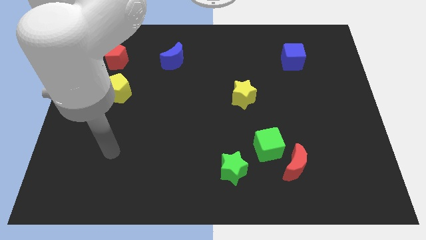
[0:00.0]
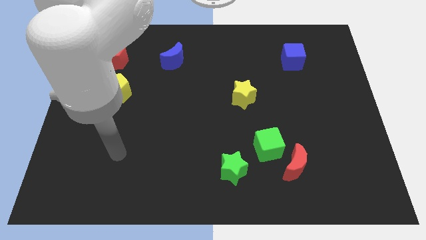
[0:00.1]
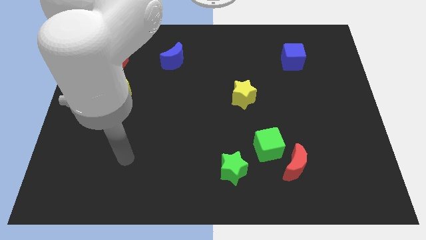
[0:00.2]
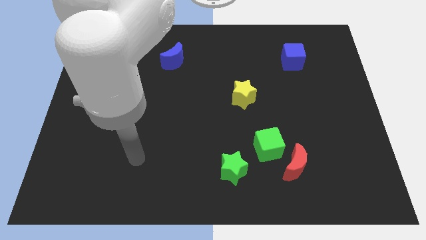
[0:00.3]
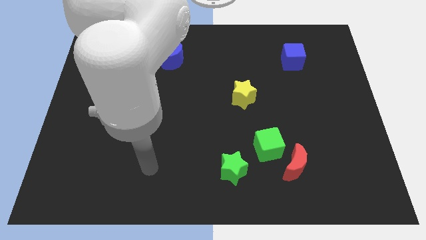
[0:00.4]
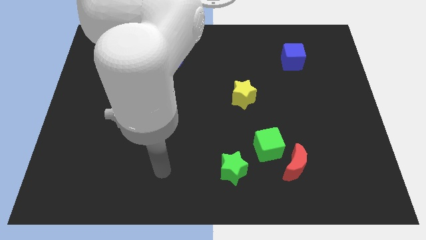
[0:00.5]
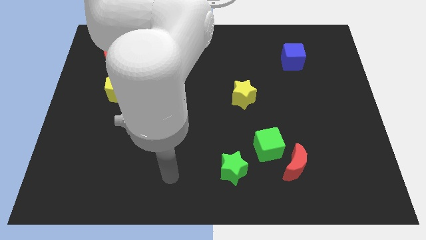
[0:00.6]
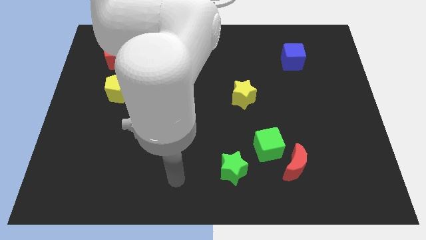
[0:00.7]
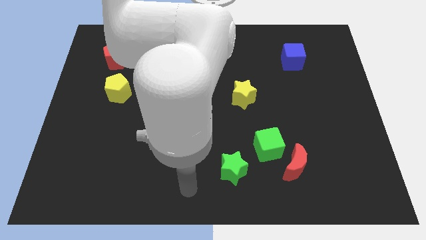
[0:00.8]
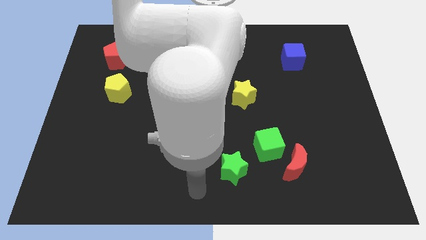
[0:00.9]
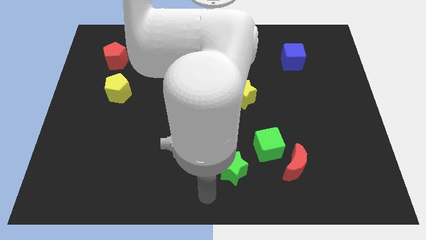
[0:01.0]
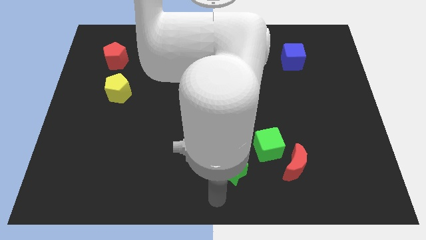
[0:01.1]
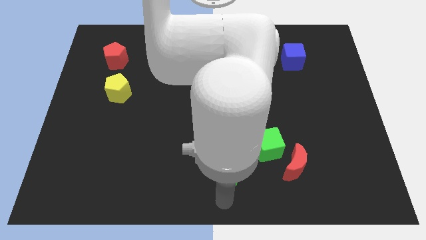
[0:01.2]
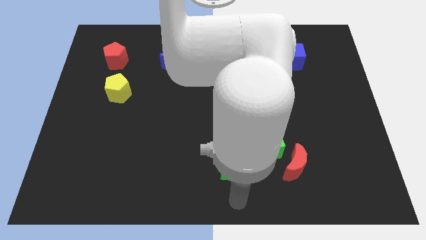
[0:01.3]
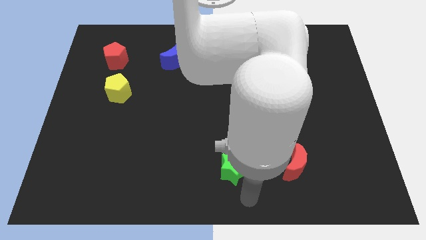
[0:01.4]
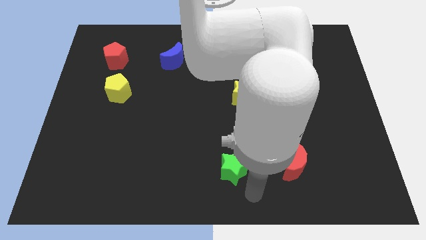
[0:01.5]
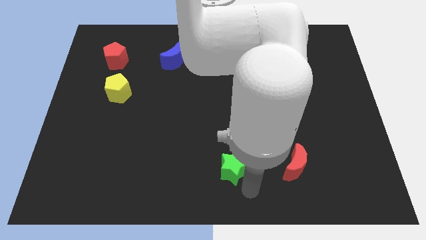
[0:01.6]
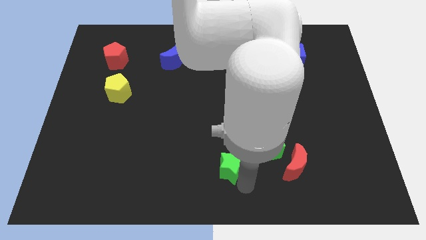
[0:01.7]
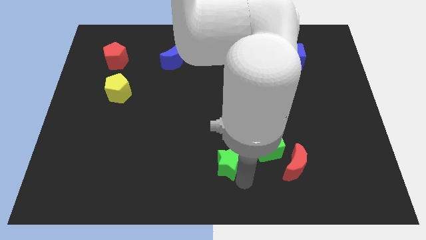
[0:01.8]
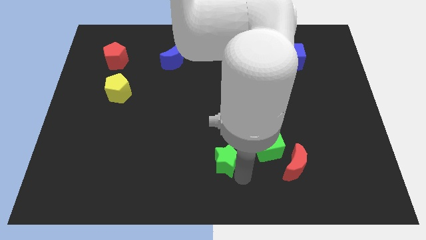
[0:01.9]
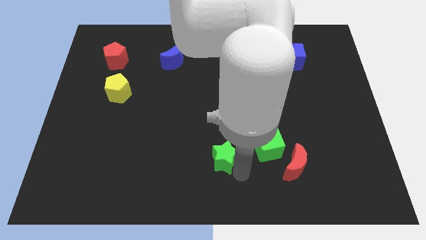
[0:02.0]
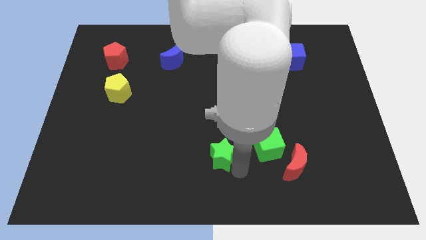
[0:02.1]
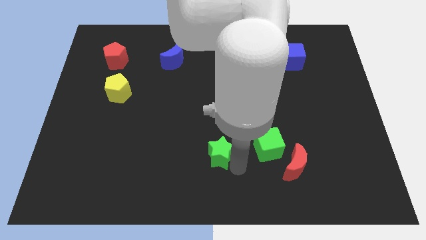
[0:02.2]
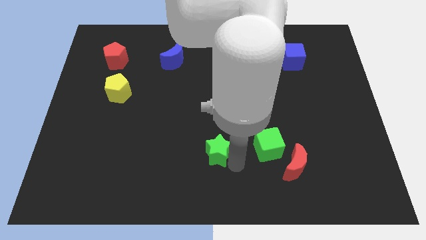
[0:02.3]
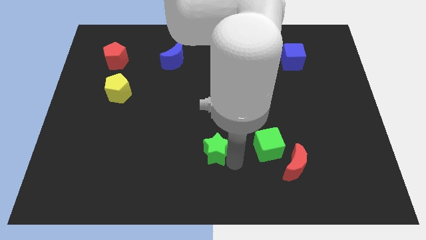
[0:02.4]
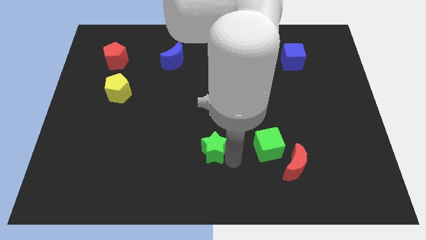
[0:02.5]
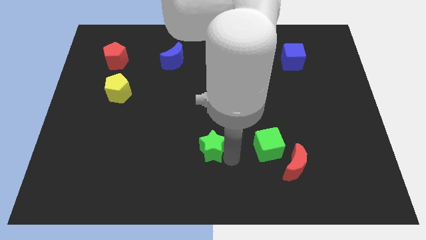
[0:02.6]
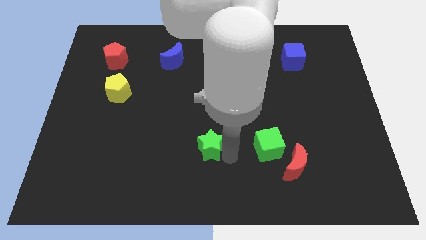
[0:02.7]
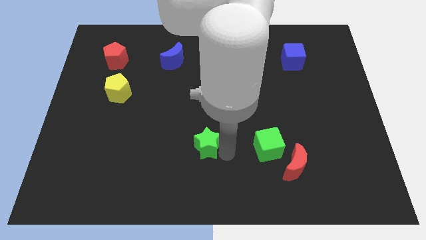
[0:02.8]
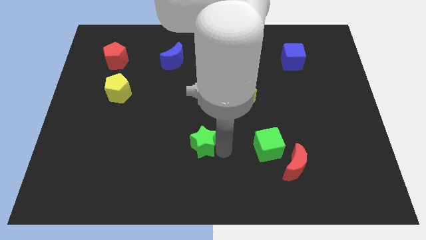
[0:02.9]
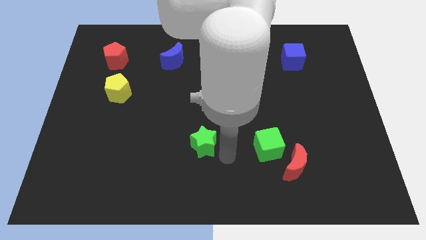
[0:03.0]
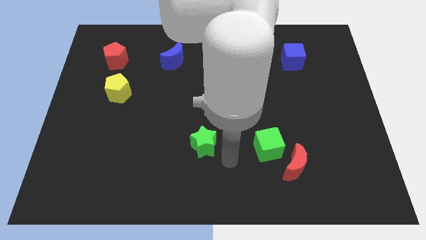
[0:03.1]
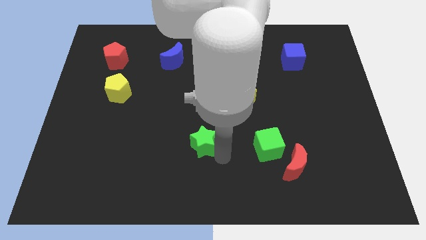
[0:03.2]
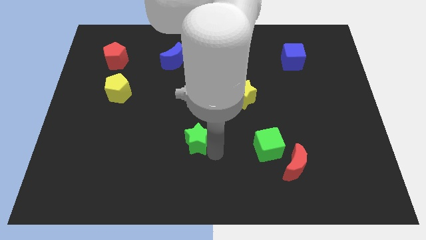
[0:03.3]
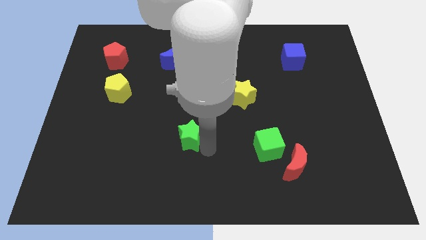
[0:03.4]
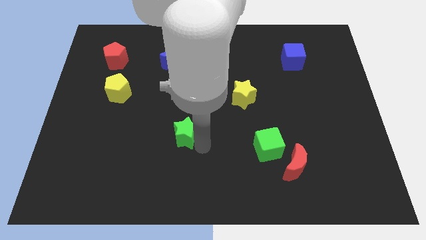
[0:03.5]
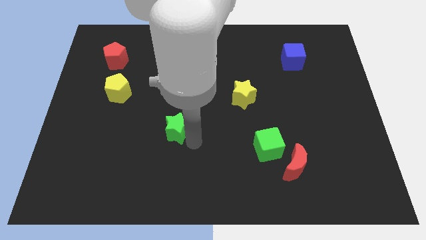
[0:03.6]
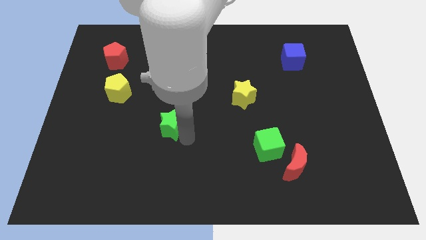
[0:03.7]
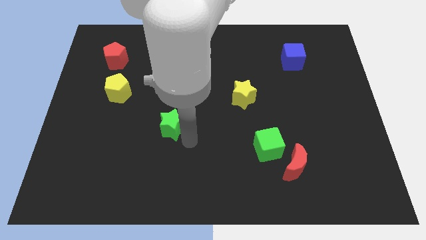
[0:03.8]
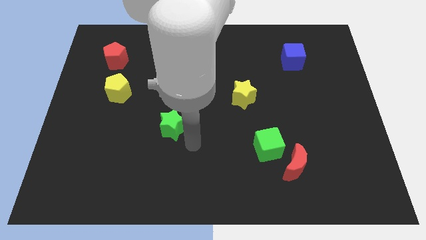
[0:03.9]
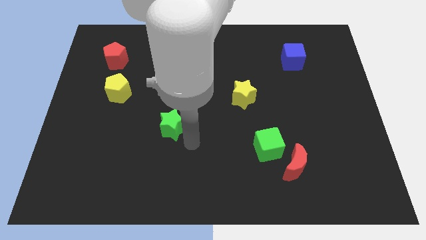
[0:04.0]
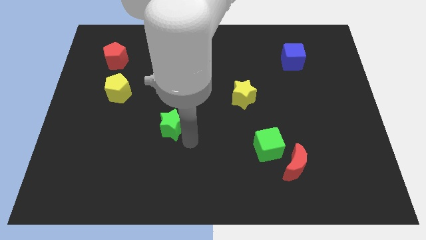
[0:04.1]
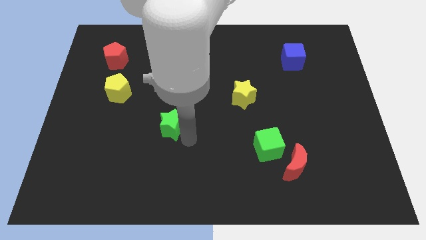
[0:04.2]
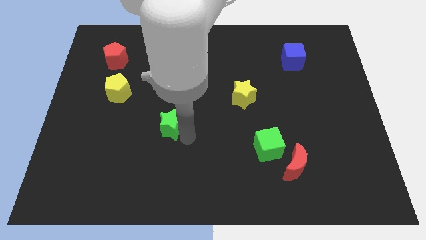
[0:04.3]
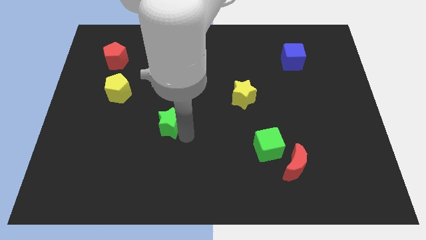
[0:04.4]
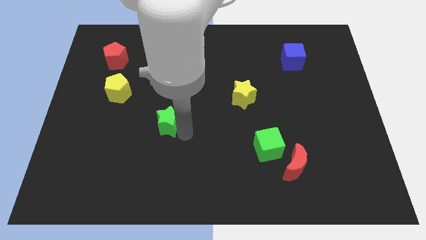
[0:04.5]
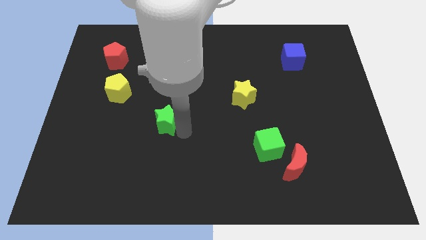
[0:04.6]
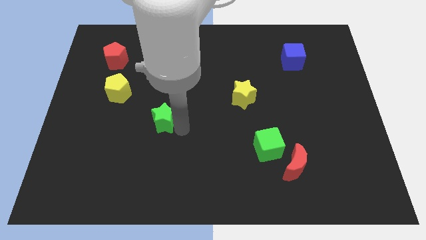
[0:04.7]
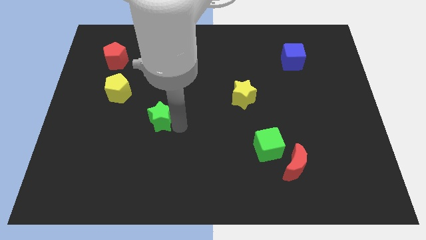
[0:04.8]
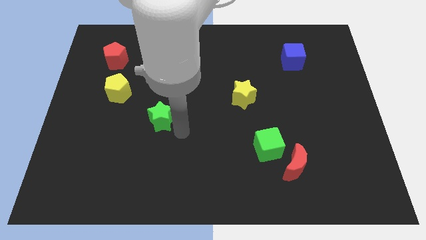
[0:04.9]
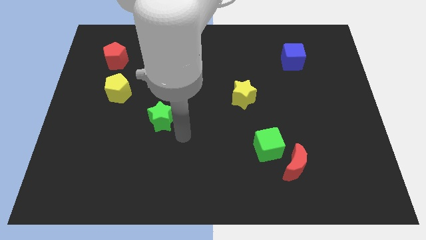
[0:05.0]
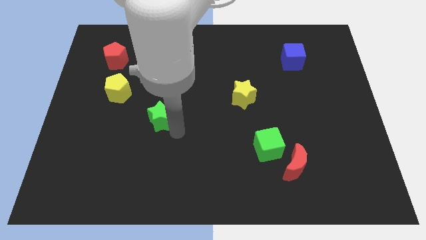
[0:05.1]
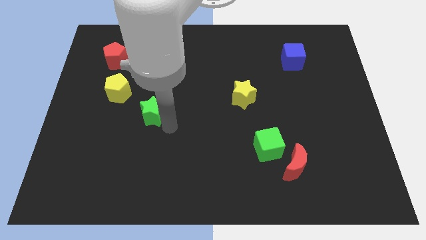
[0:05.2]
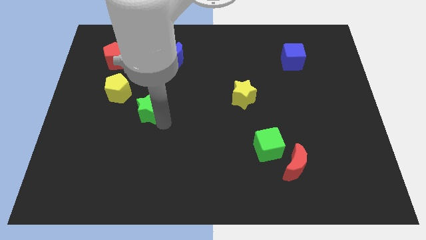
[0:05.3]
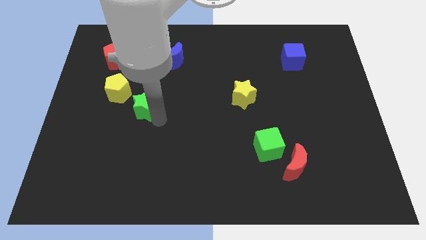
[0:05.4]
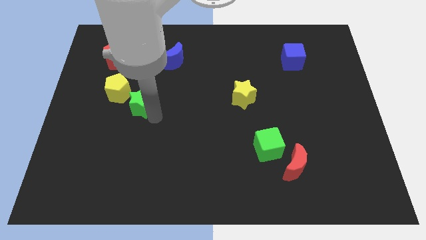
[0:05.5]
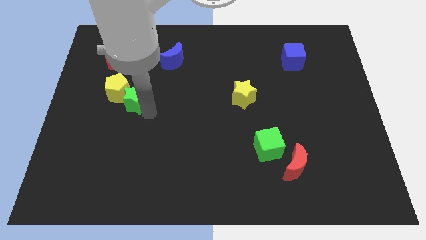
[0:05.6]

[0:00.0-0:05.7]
put the green star to the yellow pentagon

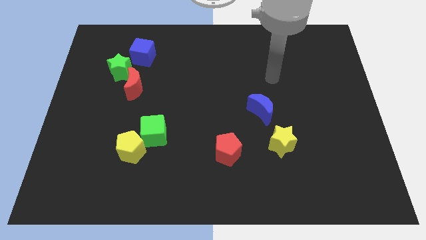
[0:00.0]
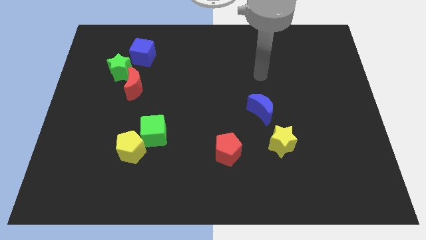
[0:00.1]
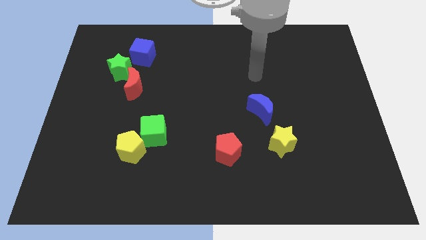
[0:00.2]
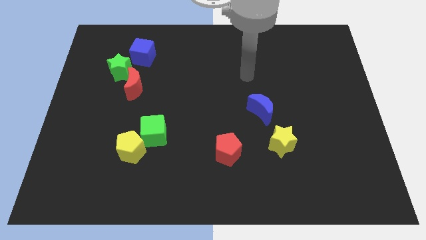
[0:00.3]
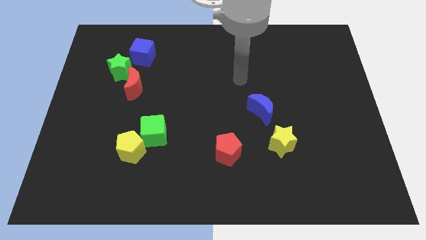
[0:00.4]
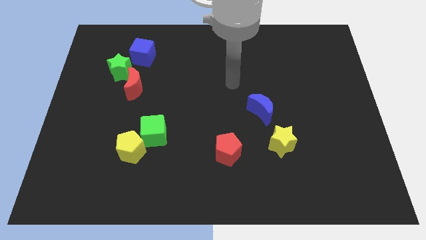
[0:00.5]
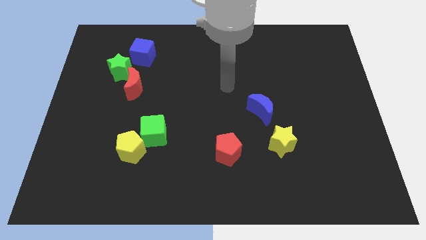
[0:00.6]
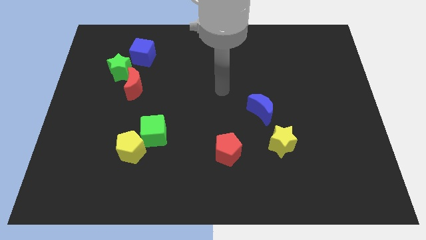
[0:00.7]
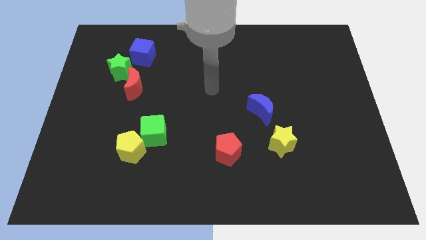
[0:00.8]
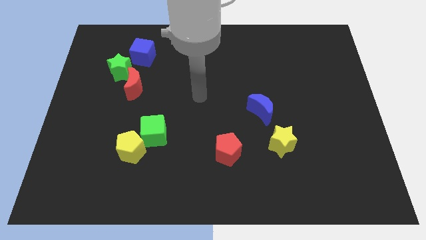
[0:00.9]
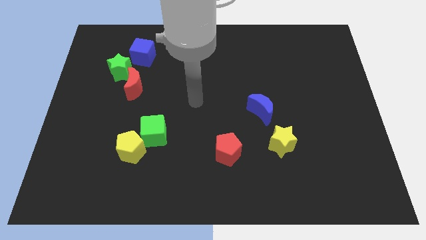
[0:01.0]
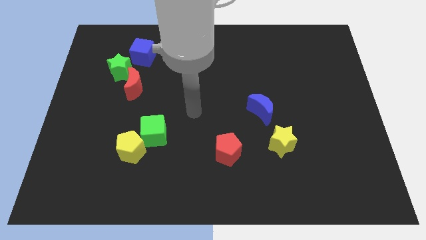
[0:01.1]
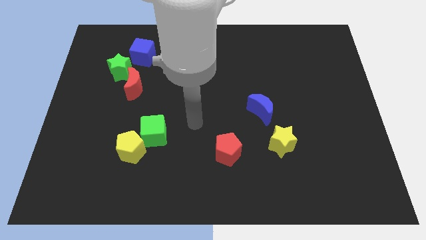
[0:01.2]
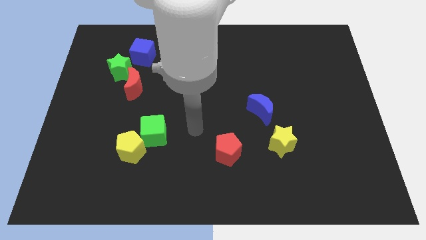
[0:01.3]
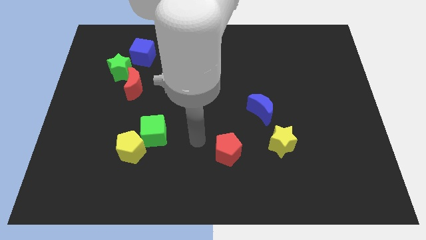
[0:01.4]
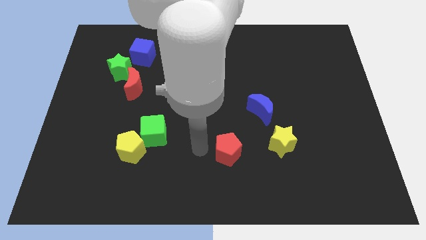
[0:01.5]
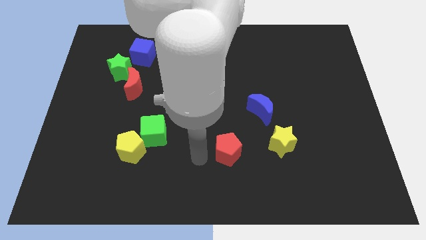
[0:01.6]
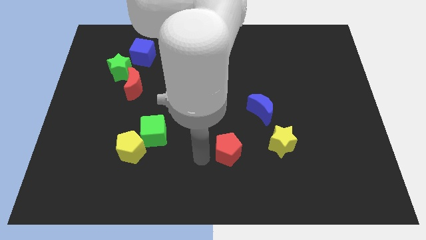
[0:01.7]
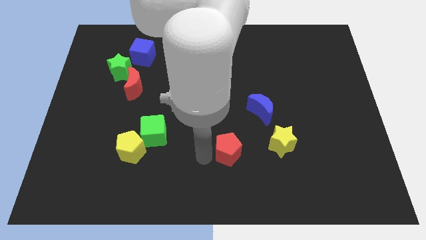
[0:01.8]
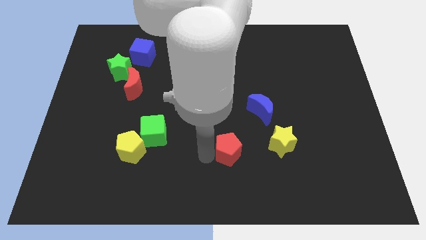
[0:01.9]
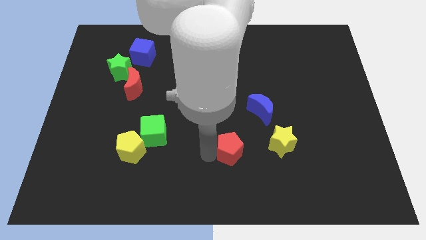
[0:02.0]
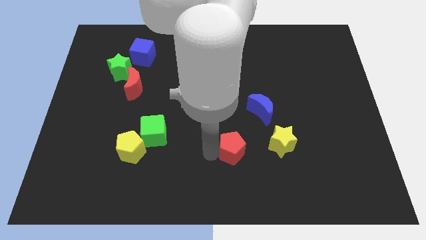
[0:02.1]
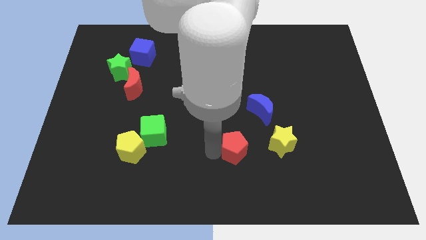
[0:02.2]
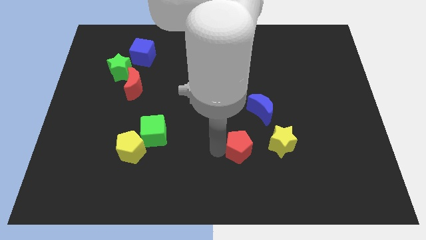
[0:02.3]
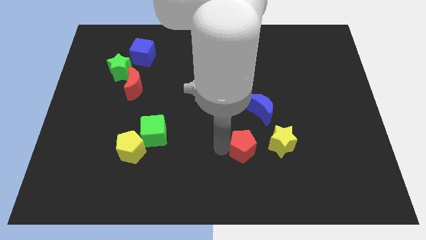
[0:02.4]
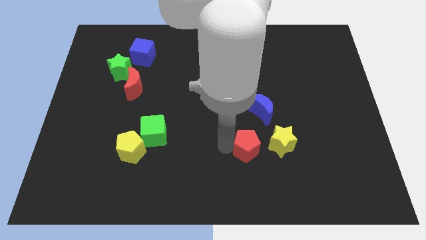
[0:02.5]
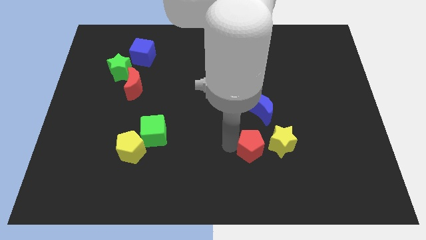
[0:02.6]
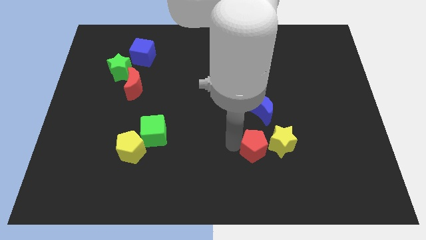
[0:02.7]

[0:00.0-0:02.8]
push the red pentagon to the yellow star
